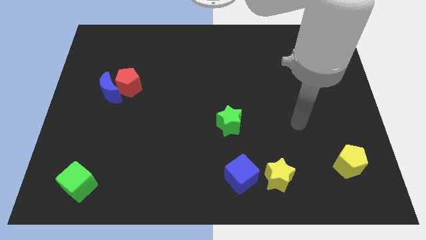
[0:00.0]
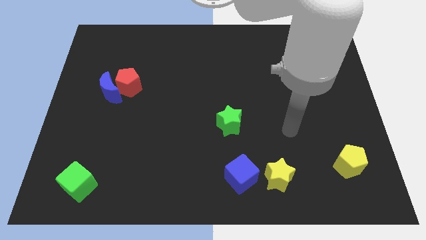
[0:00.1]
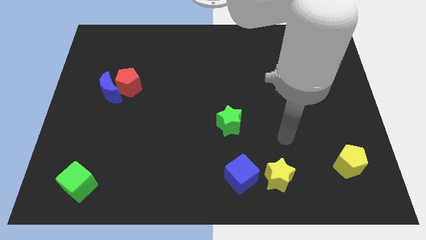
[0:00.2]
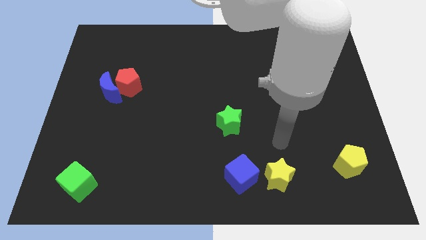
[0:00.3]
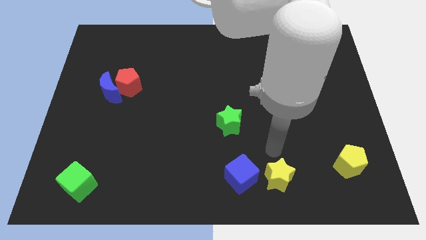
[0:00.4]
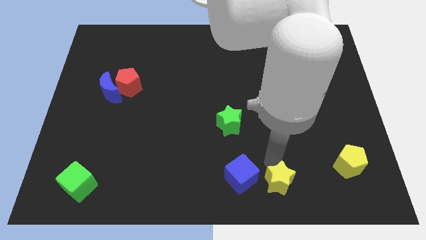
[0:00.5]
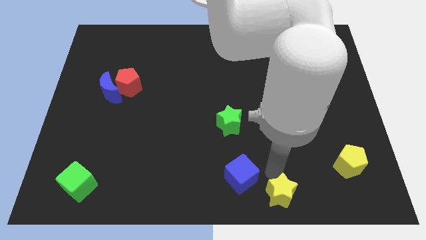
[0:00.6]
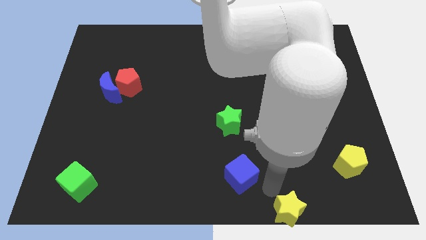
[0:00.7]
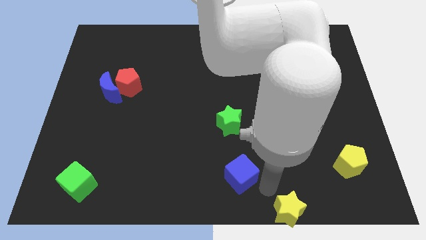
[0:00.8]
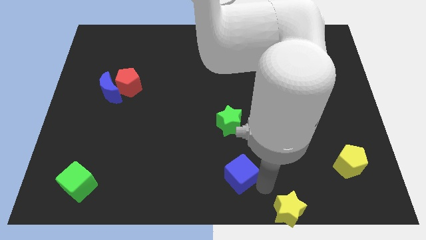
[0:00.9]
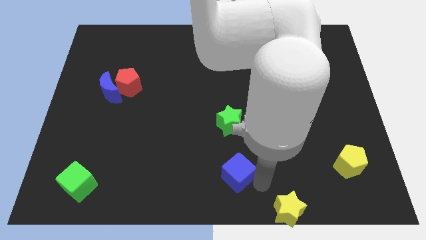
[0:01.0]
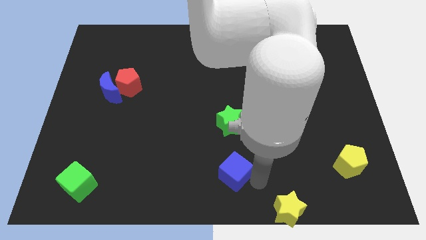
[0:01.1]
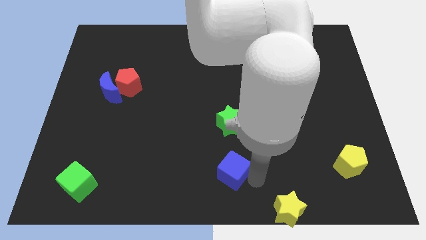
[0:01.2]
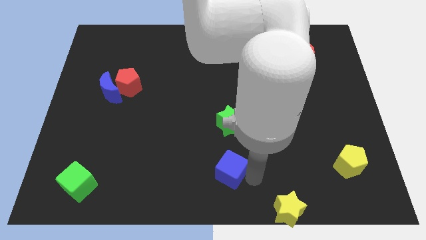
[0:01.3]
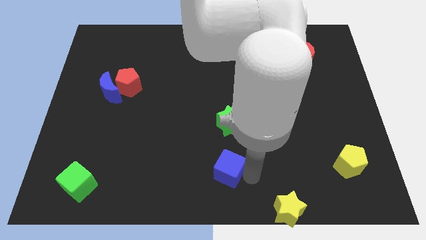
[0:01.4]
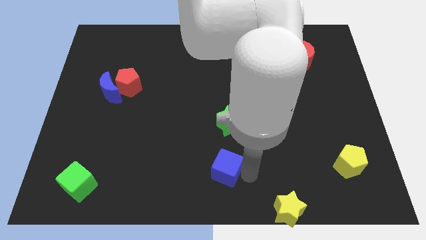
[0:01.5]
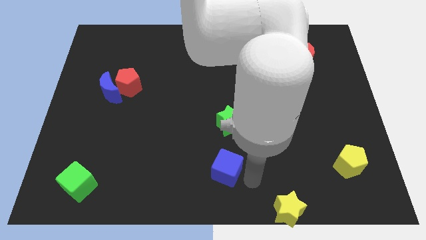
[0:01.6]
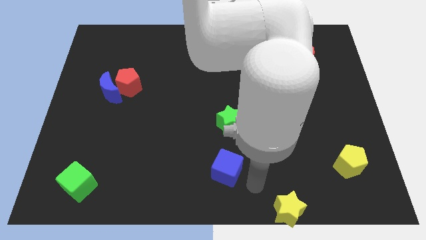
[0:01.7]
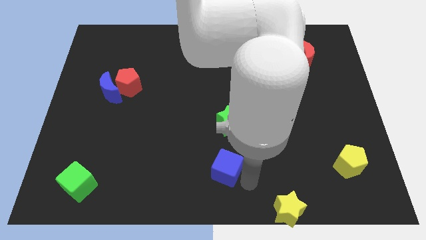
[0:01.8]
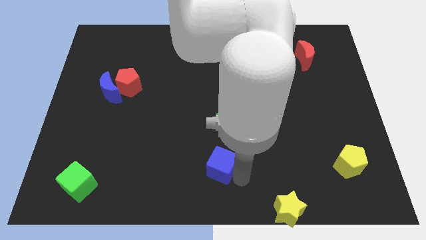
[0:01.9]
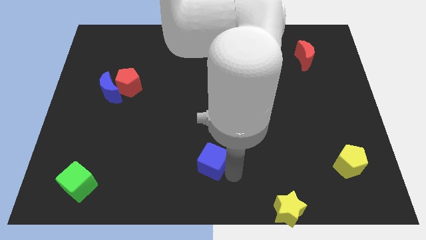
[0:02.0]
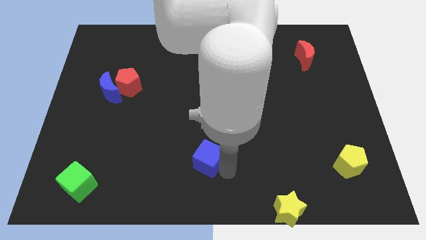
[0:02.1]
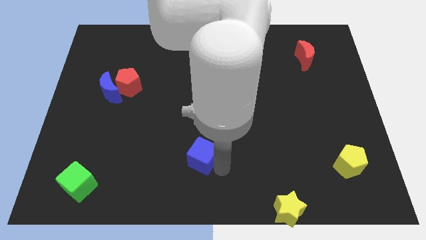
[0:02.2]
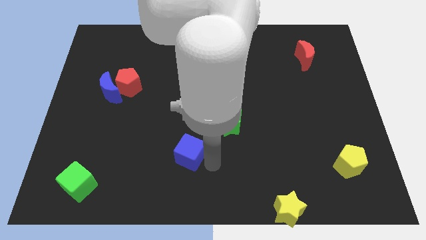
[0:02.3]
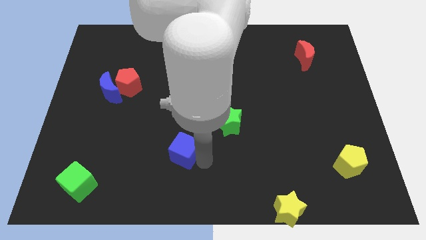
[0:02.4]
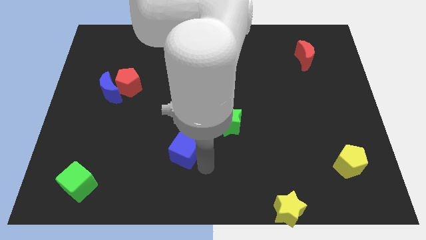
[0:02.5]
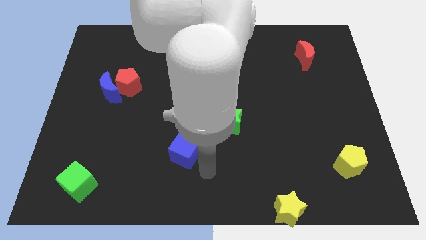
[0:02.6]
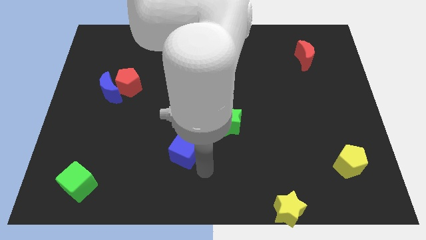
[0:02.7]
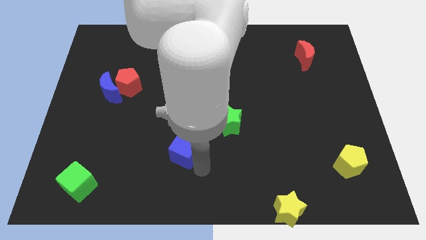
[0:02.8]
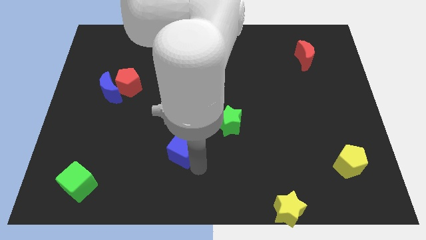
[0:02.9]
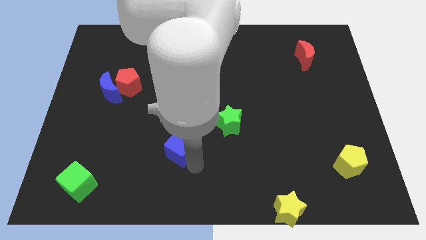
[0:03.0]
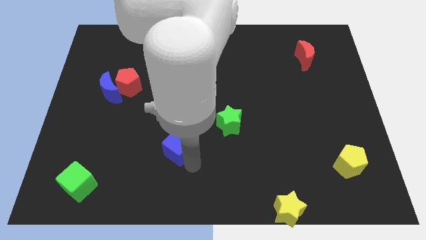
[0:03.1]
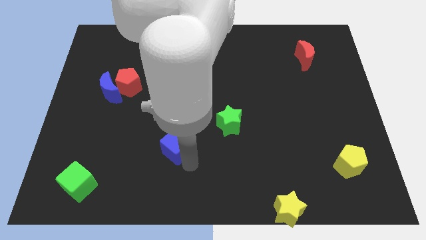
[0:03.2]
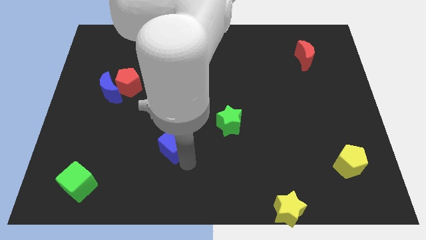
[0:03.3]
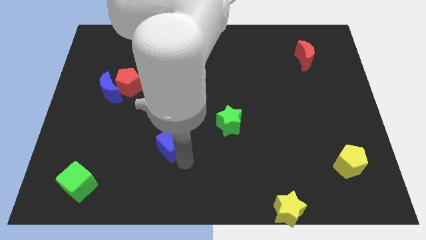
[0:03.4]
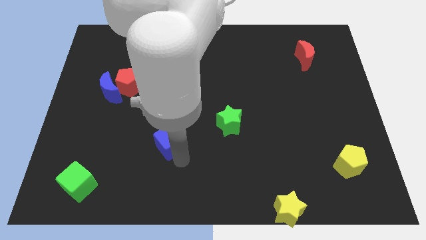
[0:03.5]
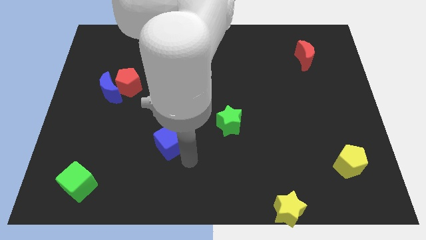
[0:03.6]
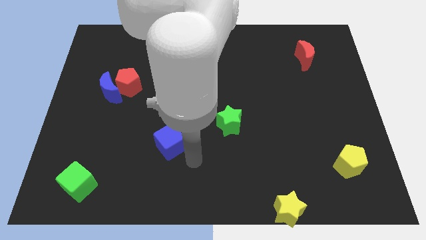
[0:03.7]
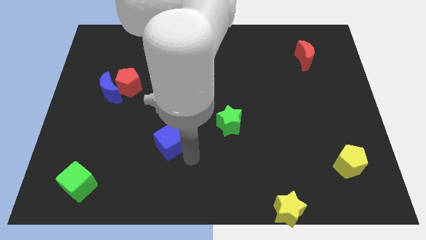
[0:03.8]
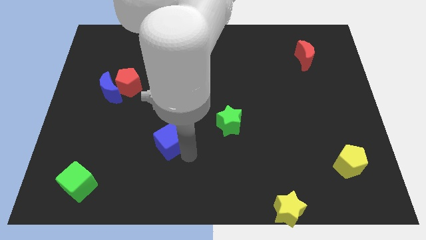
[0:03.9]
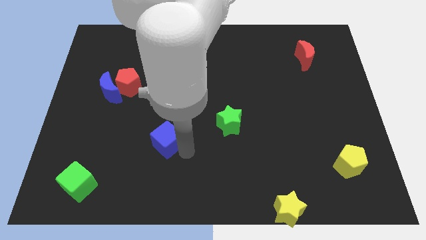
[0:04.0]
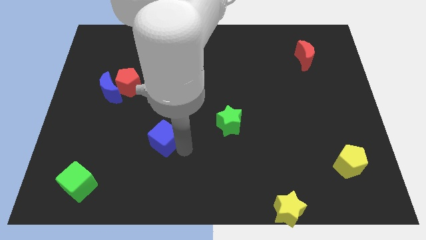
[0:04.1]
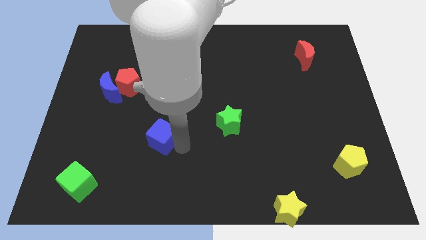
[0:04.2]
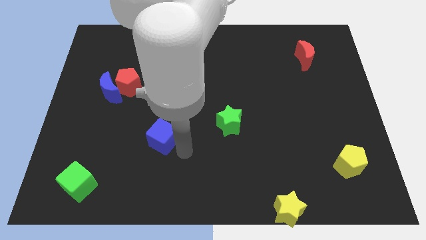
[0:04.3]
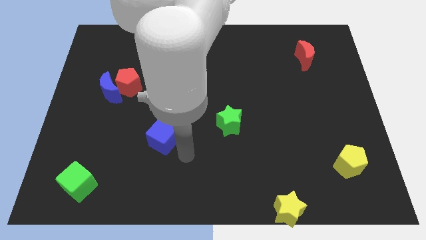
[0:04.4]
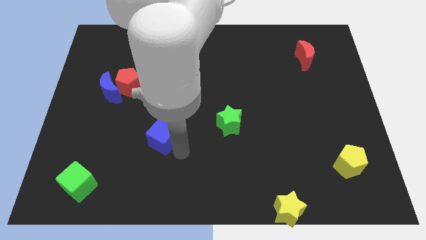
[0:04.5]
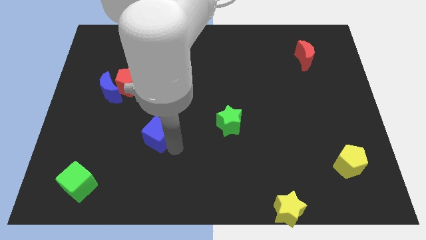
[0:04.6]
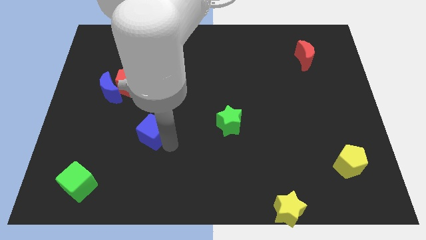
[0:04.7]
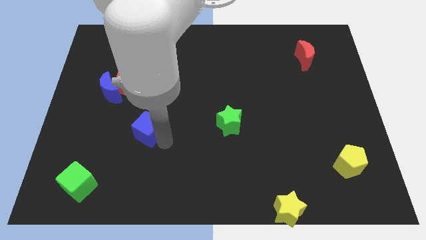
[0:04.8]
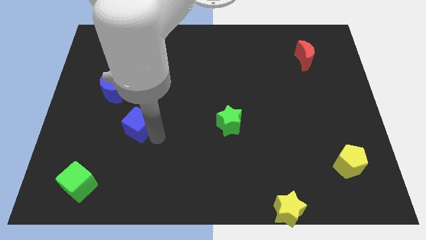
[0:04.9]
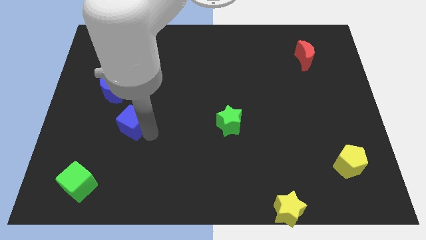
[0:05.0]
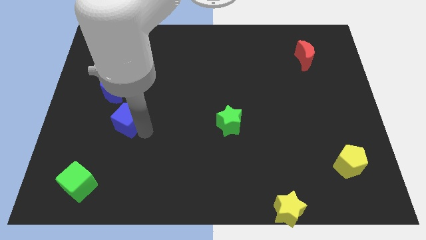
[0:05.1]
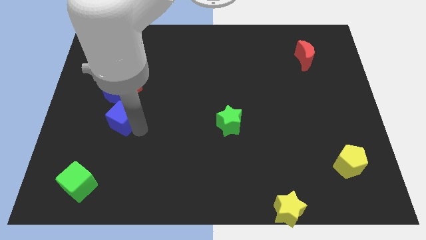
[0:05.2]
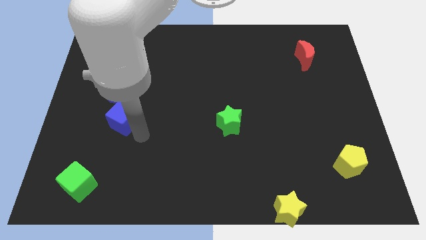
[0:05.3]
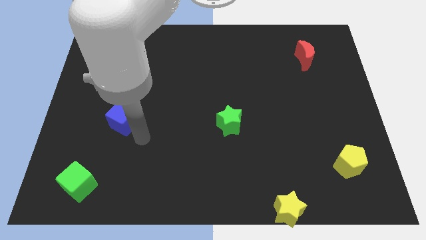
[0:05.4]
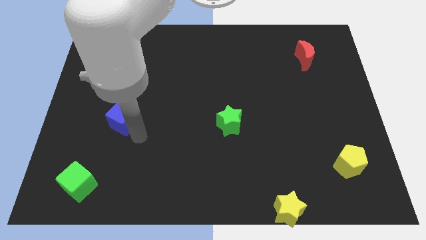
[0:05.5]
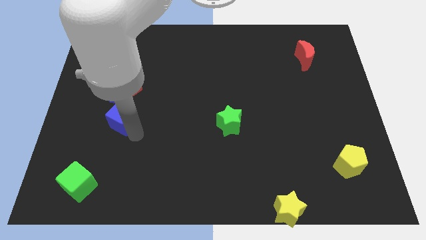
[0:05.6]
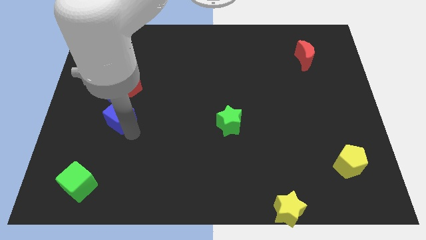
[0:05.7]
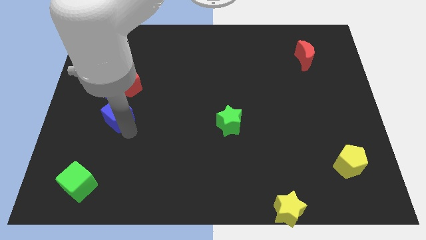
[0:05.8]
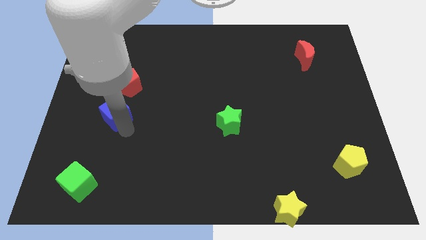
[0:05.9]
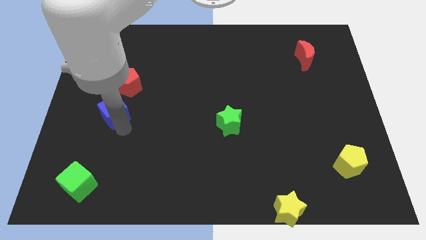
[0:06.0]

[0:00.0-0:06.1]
push the blue cube to the bottom left side of the red pentagon

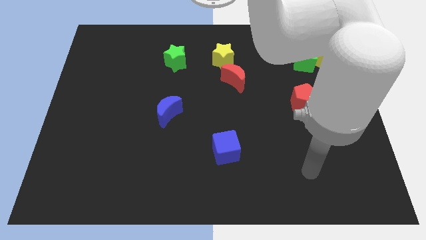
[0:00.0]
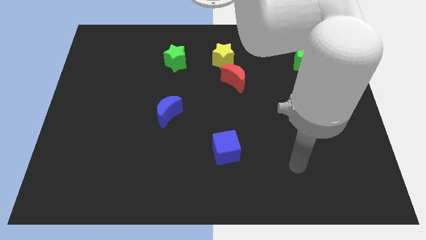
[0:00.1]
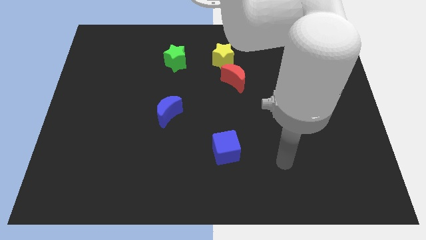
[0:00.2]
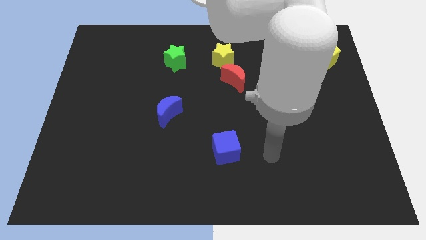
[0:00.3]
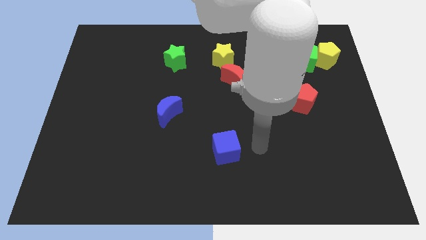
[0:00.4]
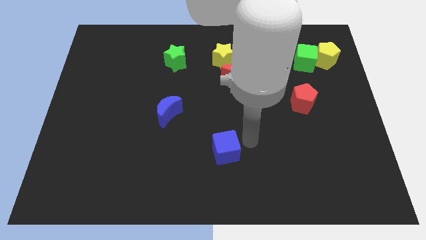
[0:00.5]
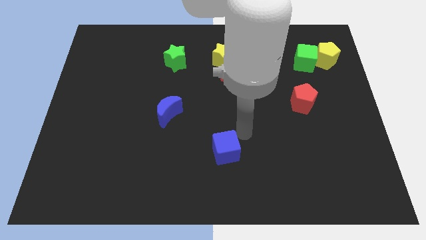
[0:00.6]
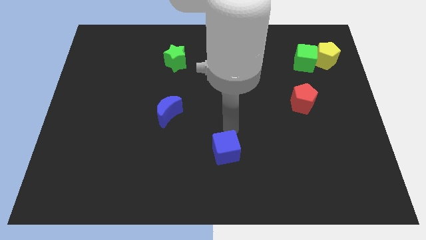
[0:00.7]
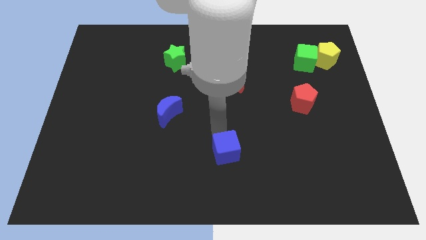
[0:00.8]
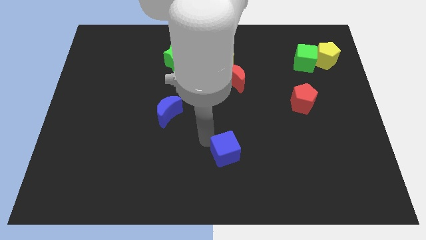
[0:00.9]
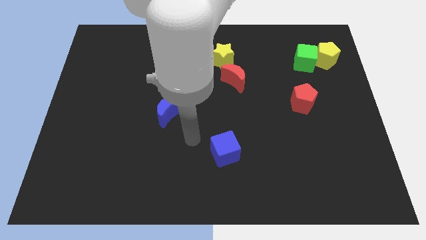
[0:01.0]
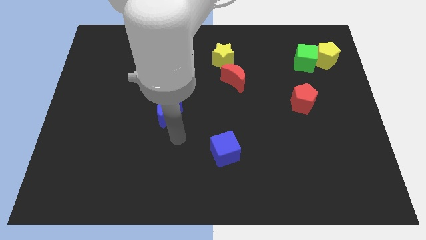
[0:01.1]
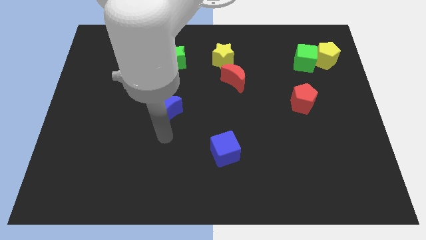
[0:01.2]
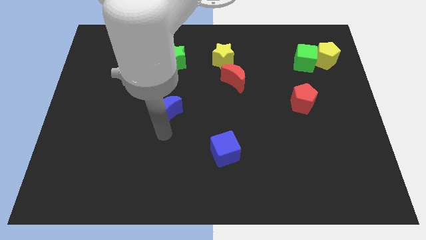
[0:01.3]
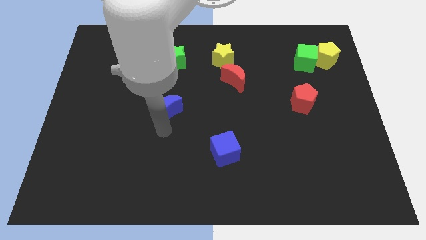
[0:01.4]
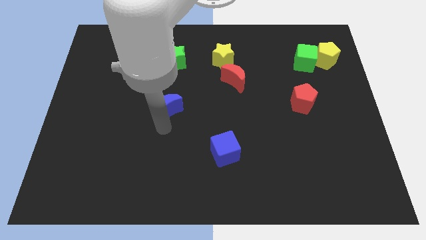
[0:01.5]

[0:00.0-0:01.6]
move the blue moon to the bottom side of the green star

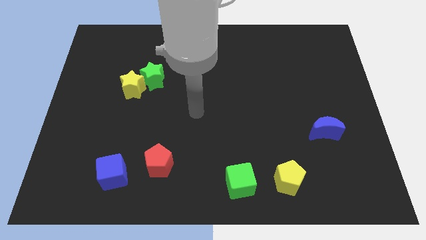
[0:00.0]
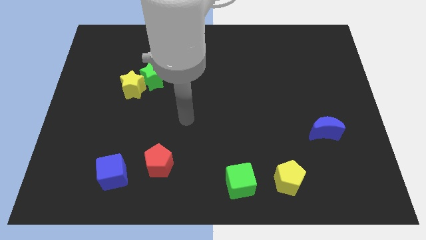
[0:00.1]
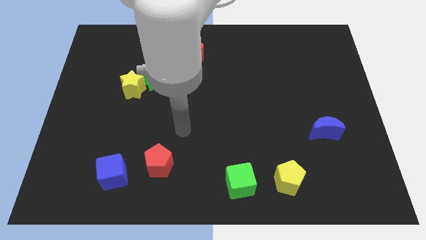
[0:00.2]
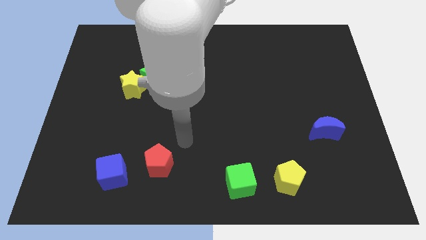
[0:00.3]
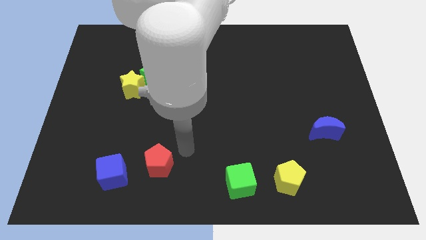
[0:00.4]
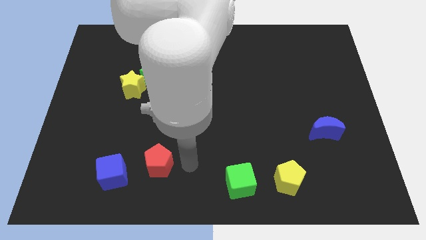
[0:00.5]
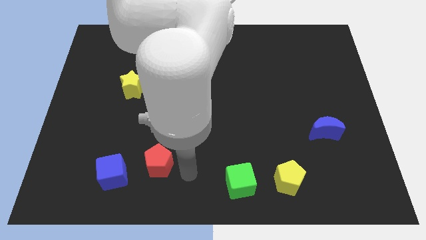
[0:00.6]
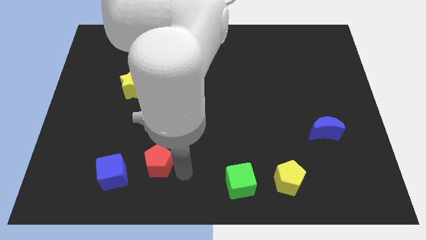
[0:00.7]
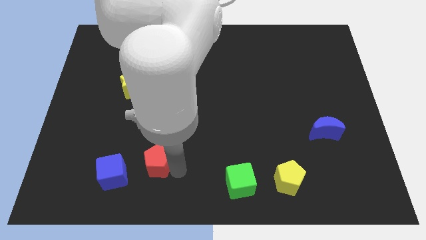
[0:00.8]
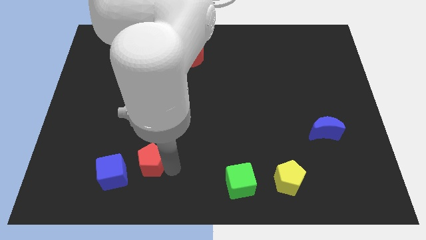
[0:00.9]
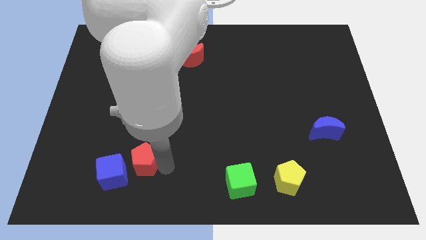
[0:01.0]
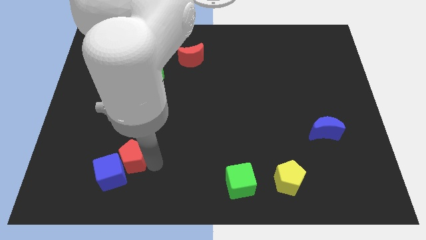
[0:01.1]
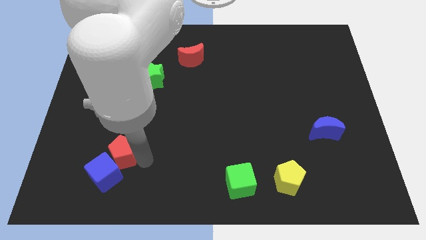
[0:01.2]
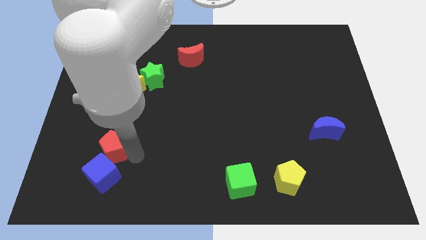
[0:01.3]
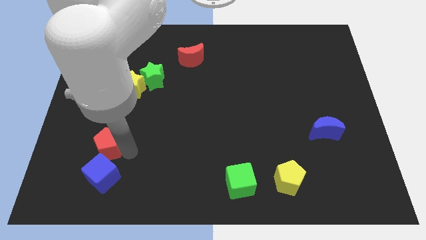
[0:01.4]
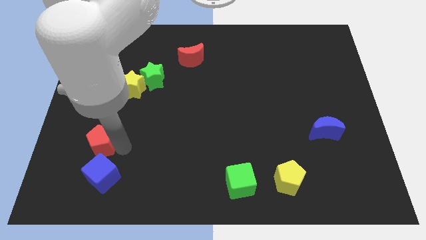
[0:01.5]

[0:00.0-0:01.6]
slide the red pentagon to the top left of the blue cube
